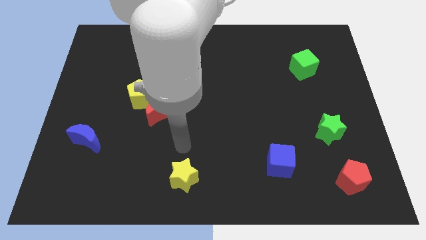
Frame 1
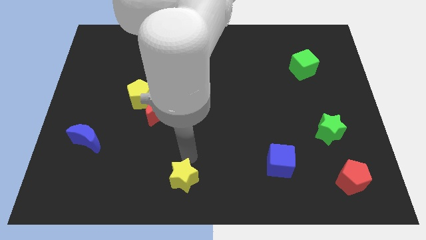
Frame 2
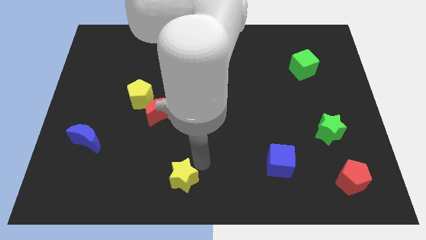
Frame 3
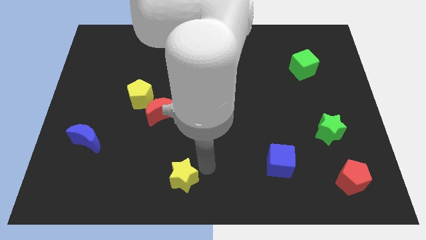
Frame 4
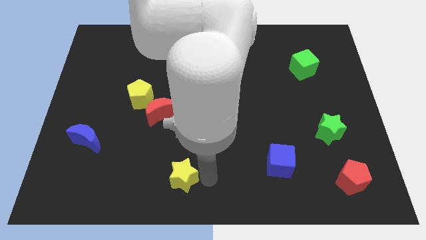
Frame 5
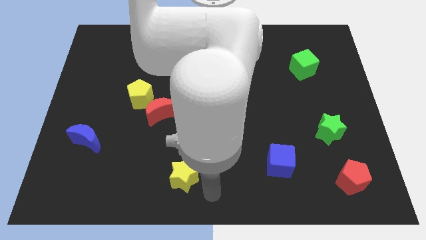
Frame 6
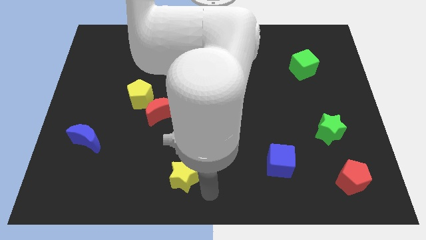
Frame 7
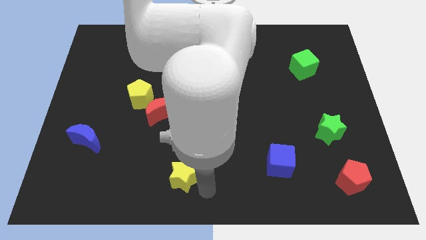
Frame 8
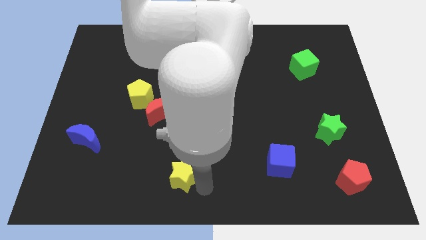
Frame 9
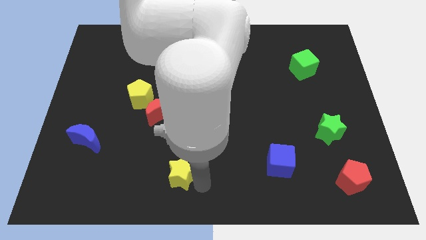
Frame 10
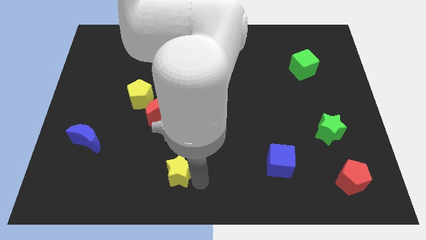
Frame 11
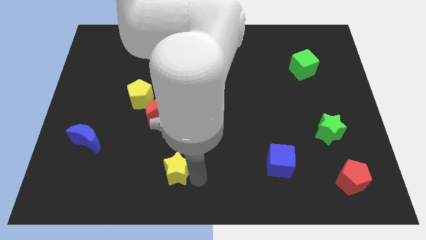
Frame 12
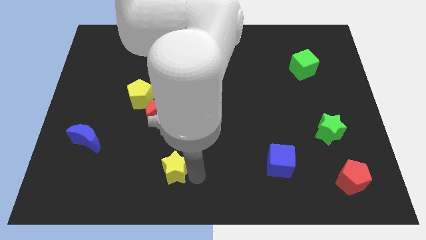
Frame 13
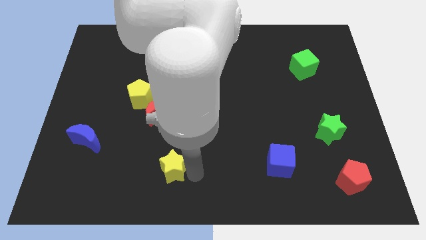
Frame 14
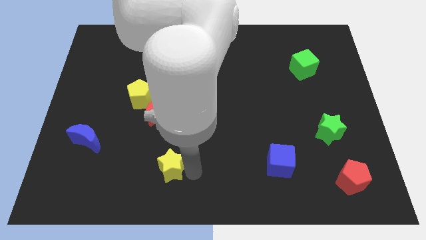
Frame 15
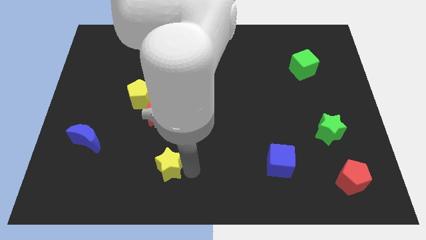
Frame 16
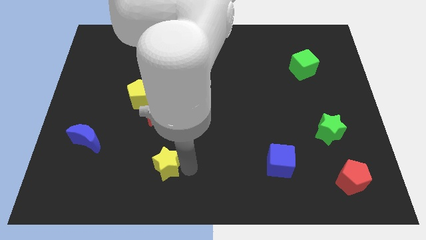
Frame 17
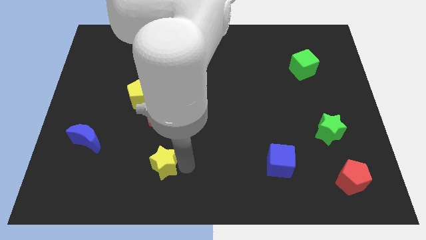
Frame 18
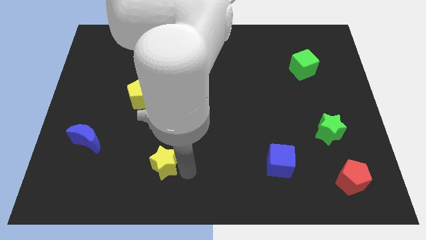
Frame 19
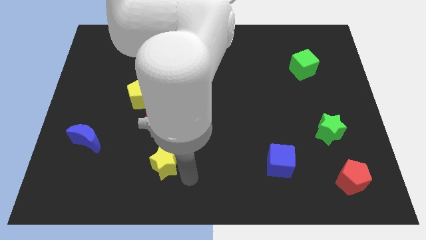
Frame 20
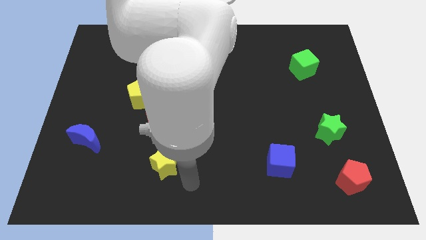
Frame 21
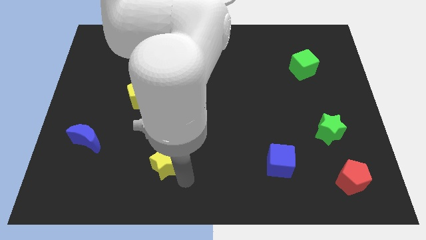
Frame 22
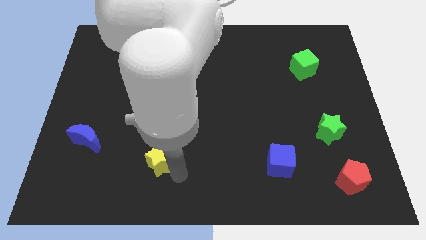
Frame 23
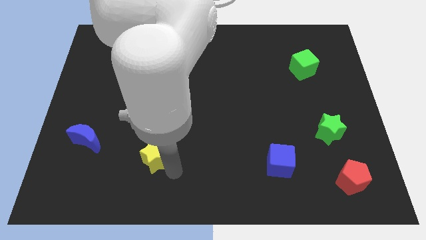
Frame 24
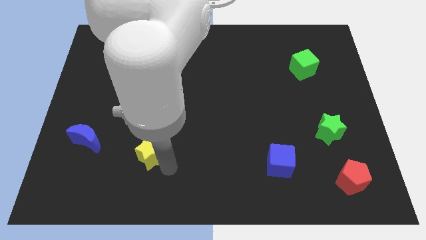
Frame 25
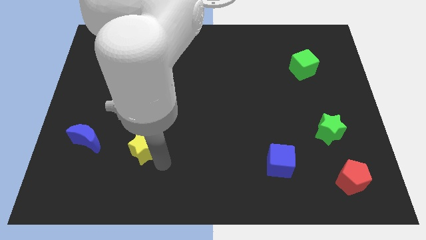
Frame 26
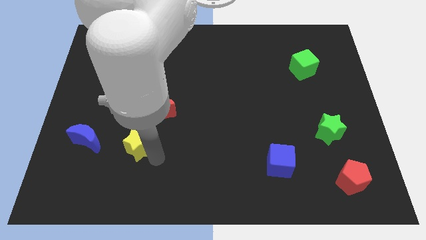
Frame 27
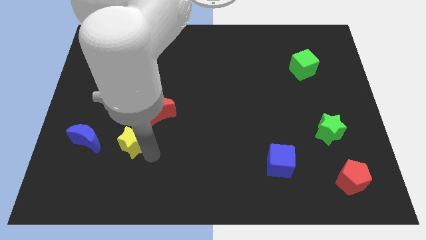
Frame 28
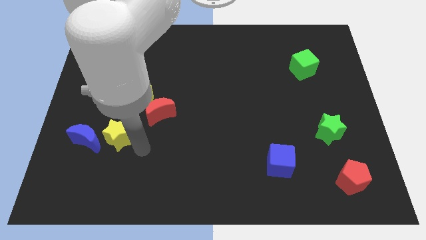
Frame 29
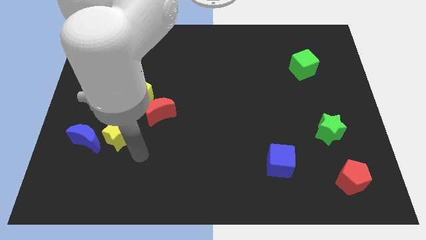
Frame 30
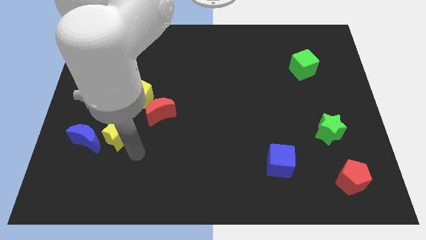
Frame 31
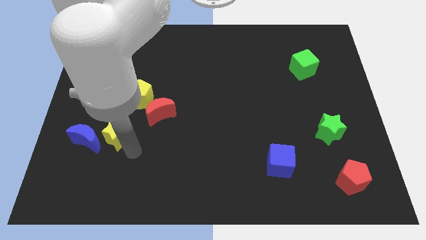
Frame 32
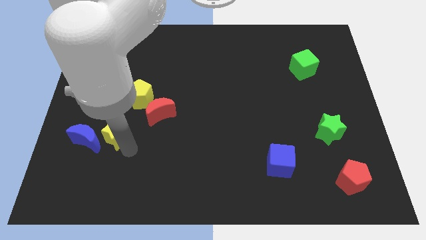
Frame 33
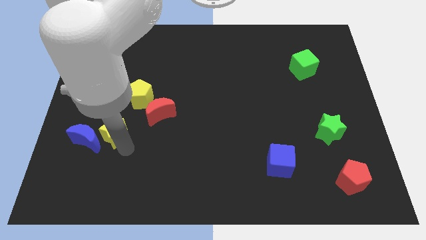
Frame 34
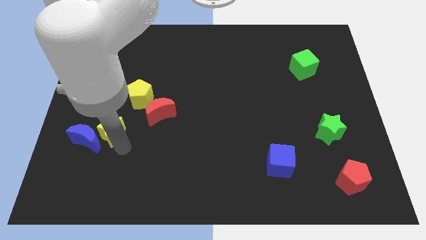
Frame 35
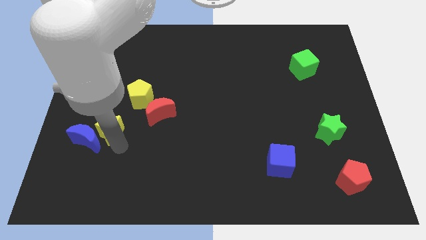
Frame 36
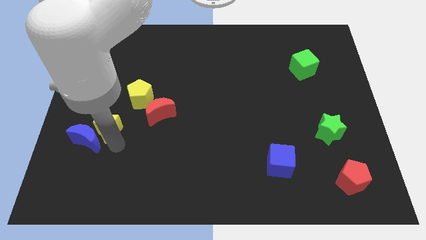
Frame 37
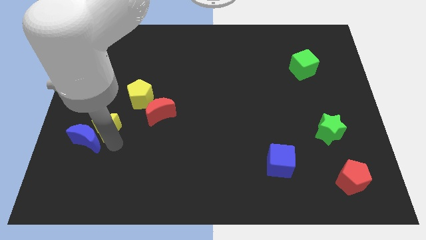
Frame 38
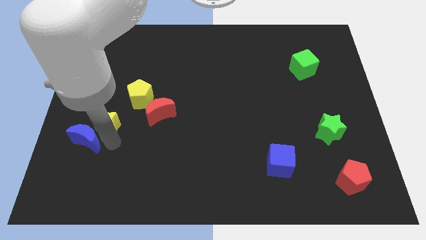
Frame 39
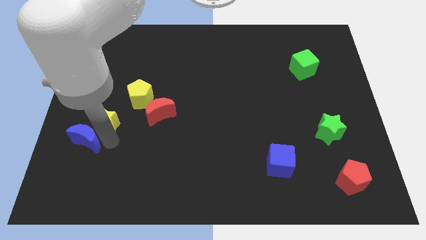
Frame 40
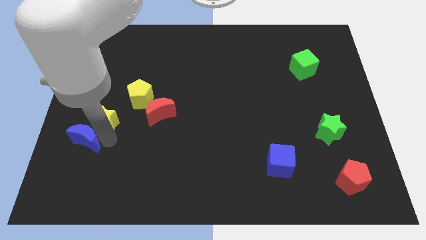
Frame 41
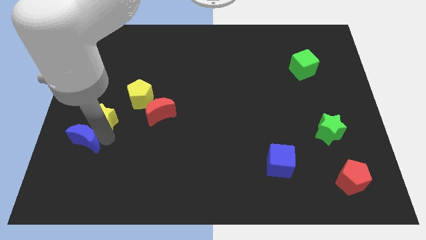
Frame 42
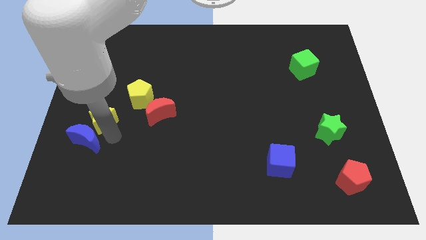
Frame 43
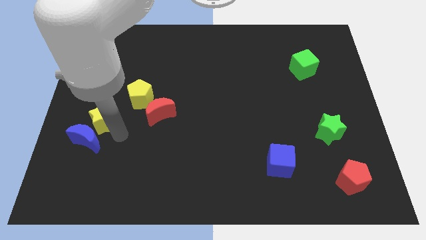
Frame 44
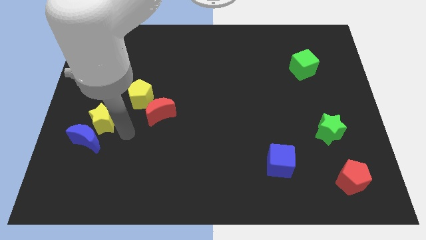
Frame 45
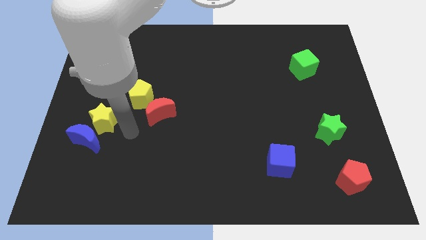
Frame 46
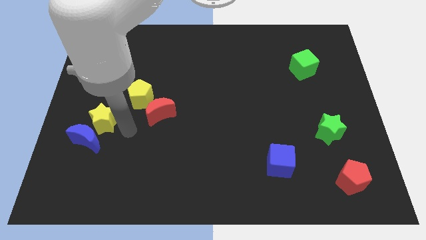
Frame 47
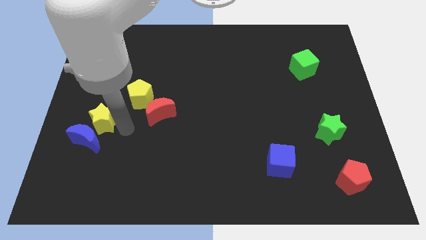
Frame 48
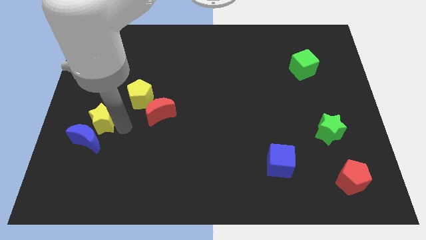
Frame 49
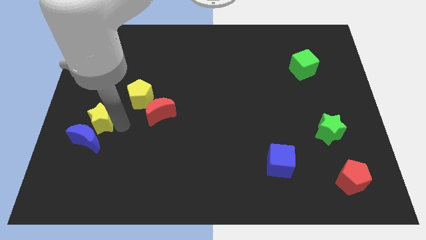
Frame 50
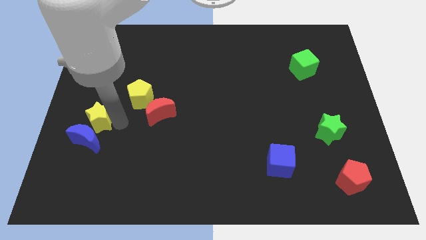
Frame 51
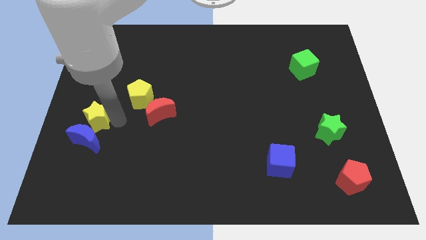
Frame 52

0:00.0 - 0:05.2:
push the yellow star to the left side of the board
